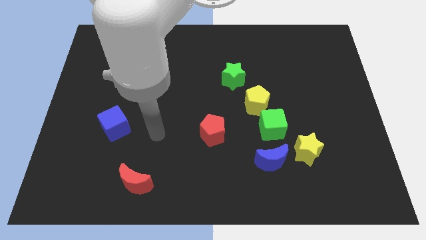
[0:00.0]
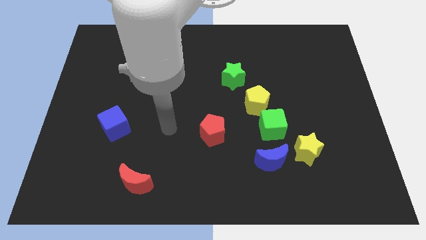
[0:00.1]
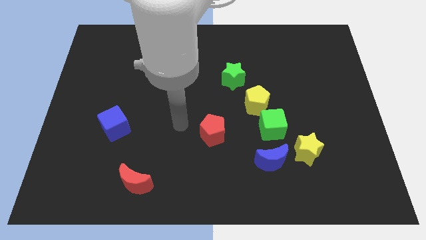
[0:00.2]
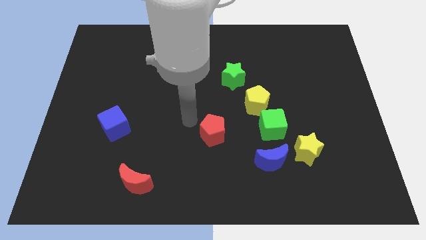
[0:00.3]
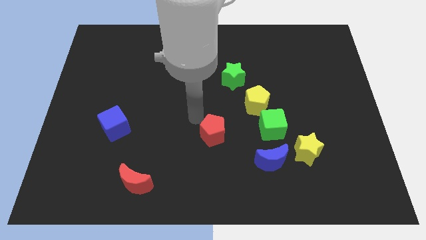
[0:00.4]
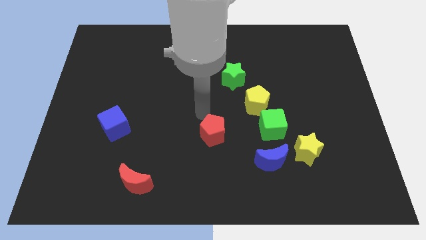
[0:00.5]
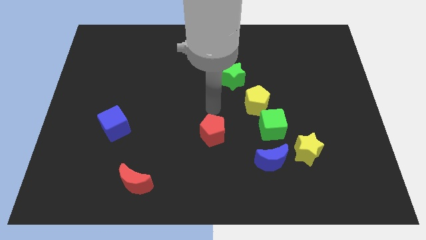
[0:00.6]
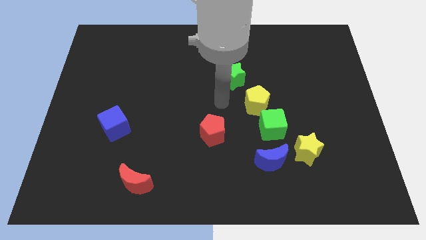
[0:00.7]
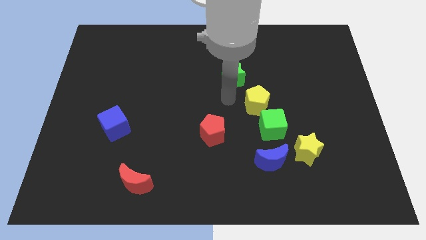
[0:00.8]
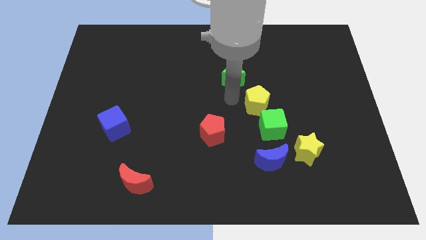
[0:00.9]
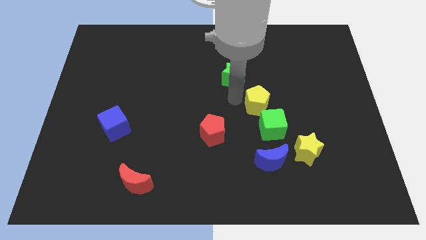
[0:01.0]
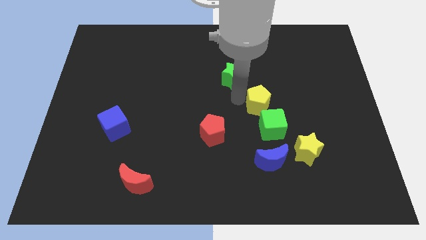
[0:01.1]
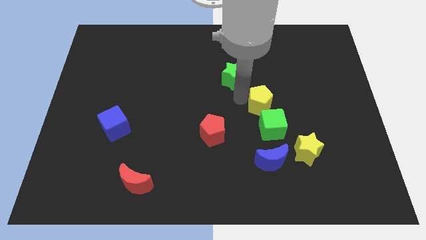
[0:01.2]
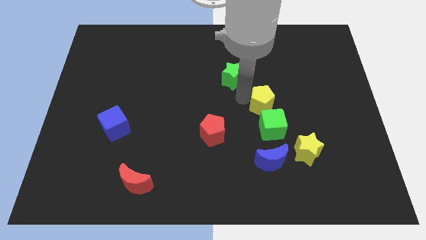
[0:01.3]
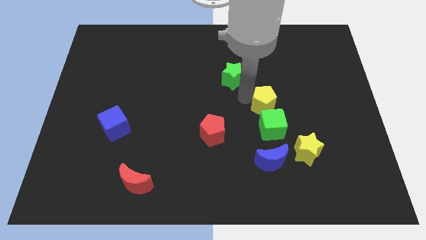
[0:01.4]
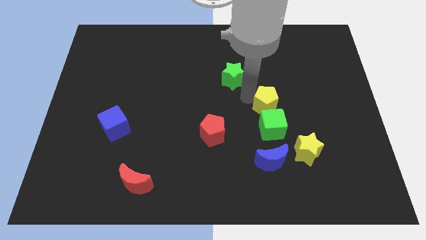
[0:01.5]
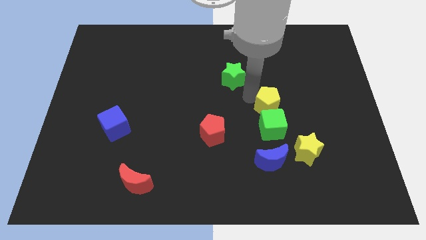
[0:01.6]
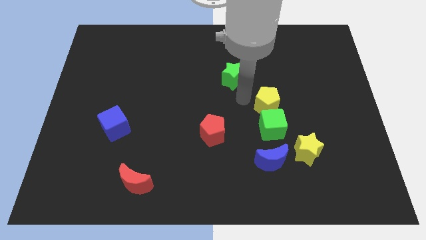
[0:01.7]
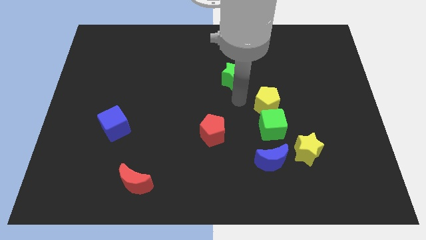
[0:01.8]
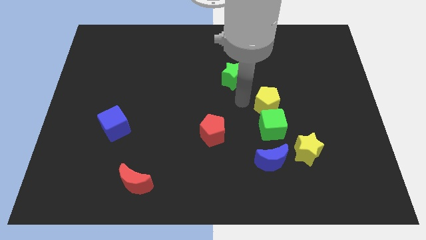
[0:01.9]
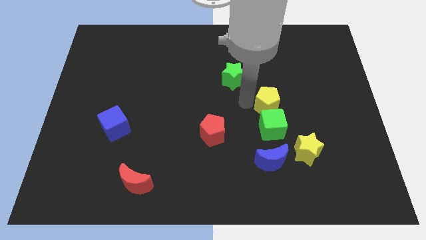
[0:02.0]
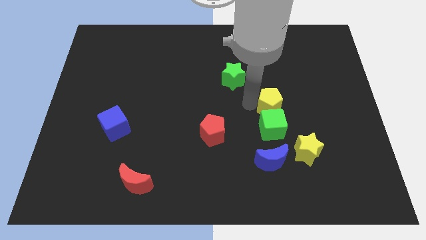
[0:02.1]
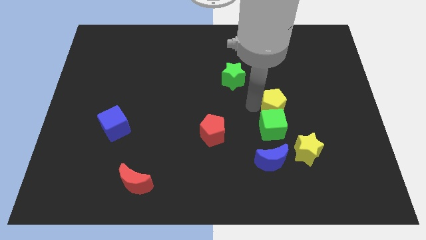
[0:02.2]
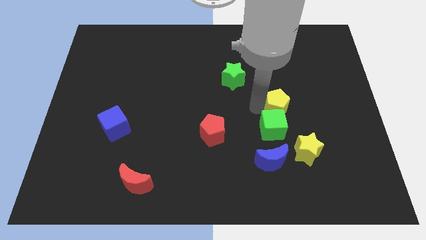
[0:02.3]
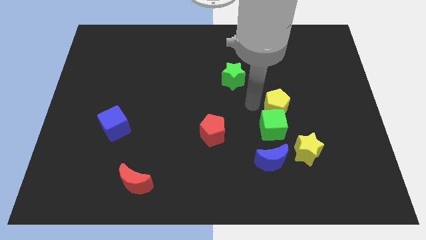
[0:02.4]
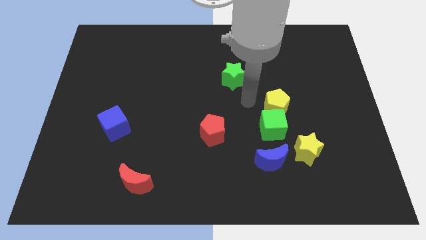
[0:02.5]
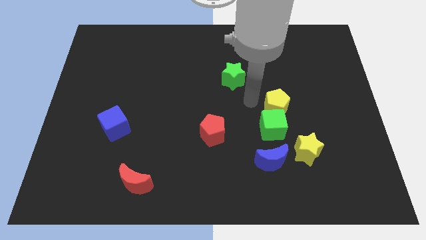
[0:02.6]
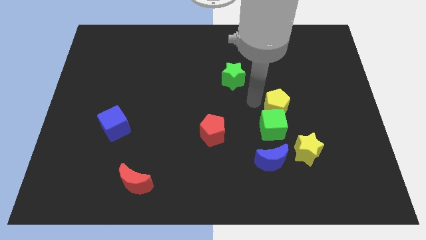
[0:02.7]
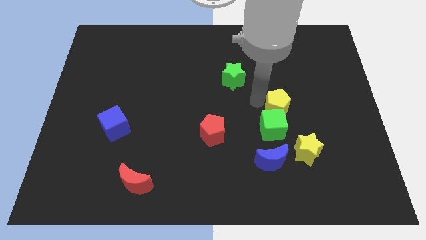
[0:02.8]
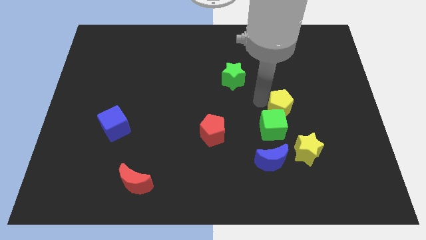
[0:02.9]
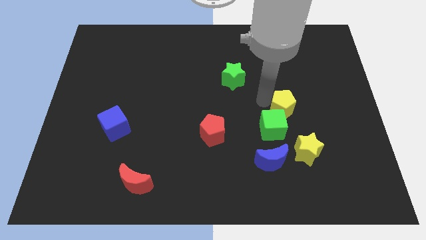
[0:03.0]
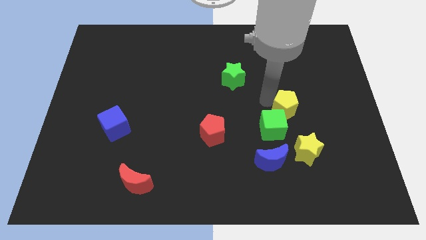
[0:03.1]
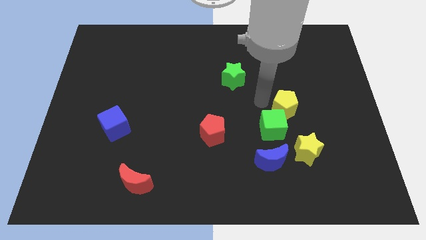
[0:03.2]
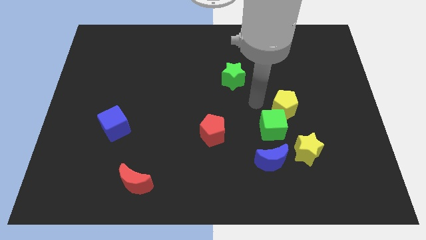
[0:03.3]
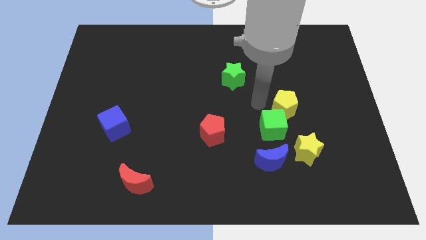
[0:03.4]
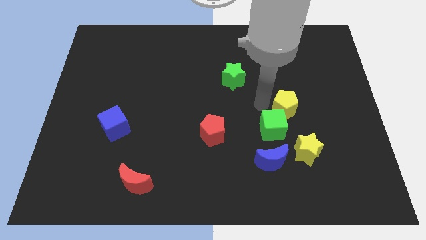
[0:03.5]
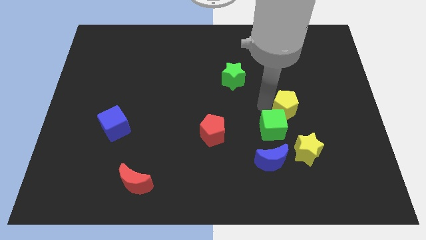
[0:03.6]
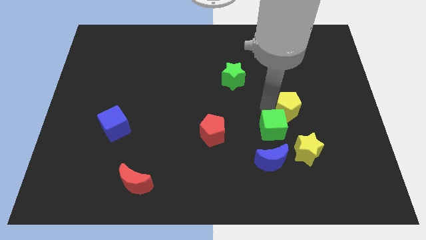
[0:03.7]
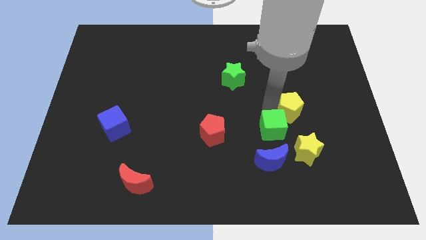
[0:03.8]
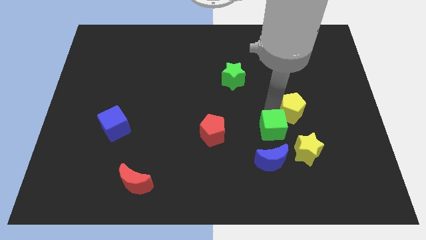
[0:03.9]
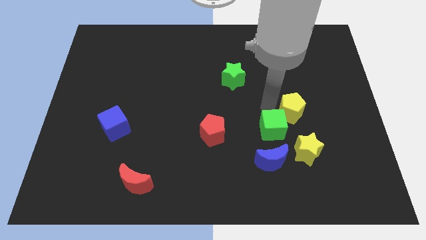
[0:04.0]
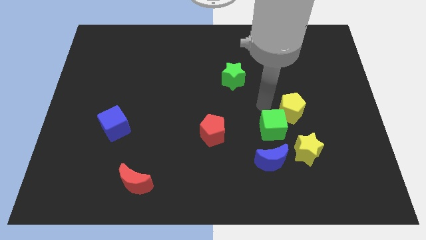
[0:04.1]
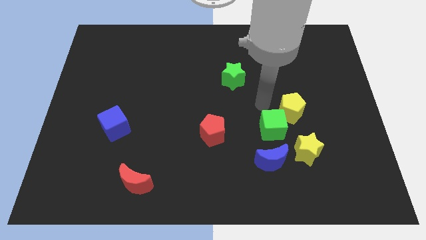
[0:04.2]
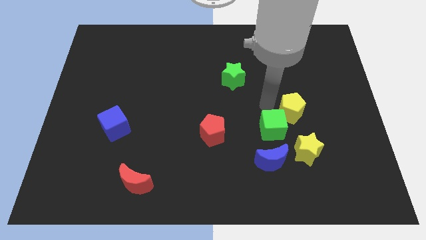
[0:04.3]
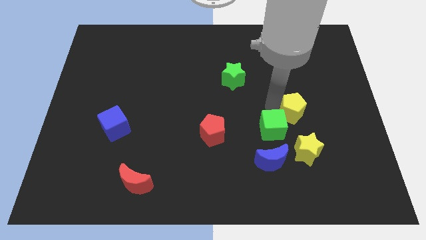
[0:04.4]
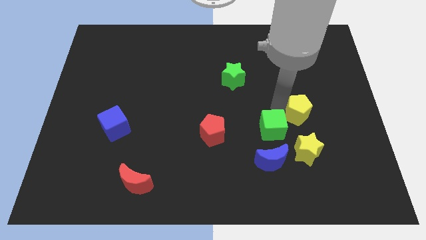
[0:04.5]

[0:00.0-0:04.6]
move the yellow pentagon away from the green cube and green star

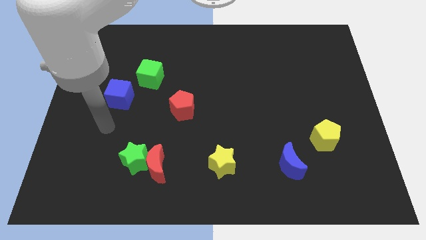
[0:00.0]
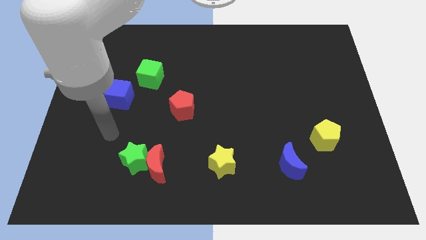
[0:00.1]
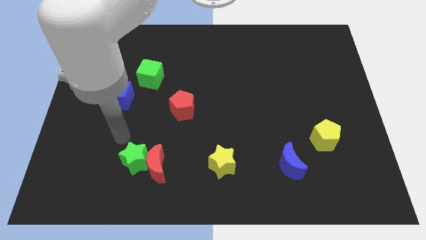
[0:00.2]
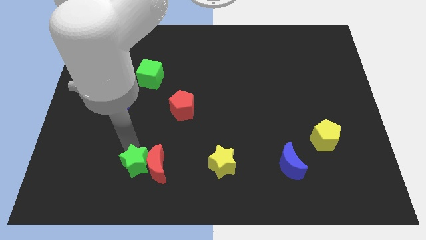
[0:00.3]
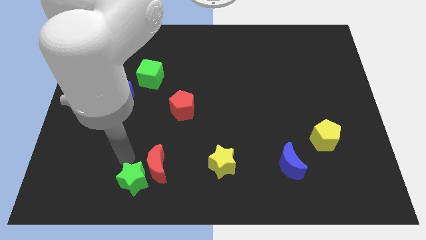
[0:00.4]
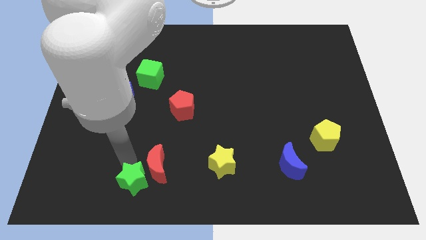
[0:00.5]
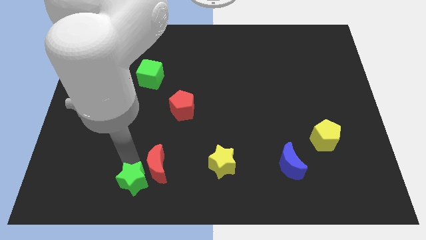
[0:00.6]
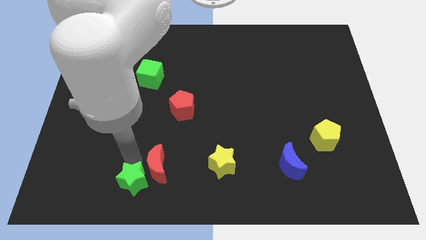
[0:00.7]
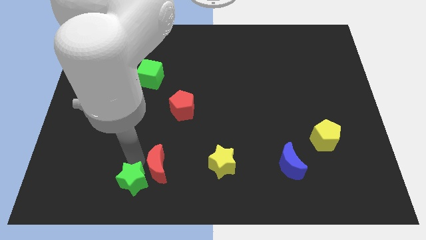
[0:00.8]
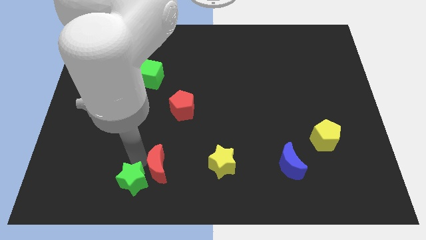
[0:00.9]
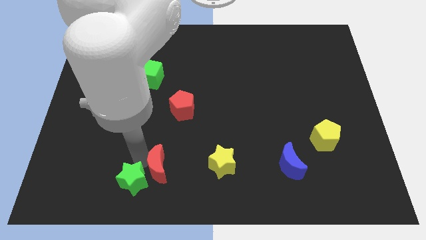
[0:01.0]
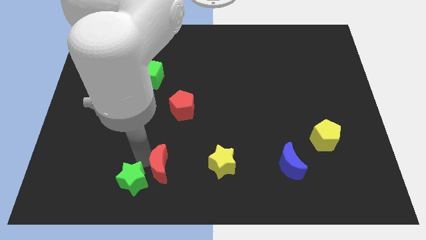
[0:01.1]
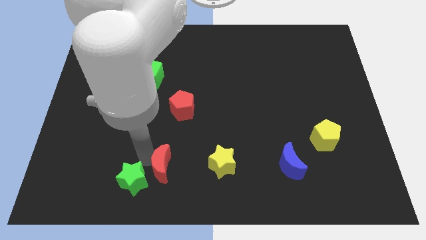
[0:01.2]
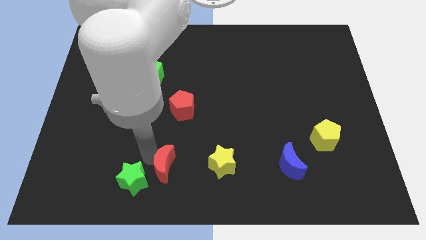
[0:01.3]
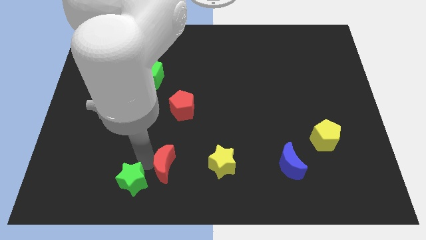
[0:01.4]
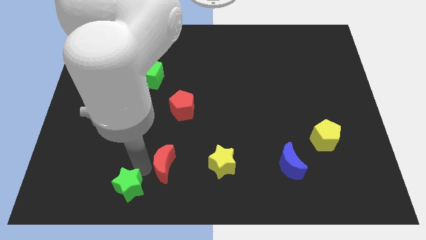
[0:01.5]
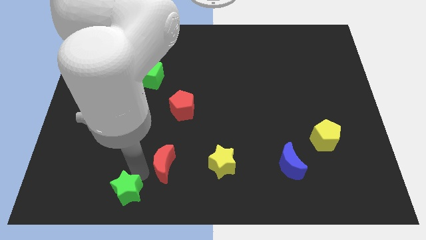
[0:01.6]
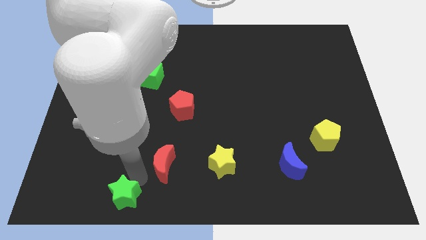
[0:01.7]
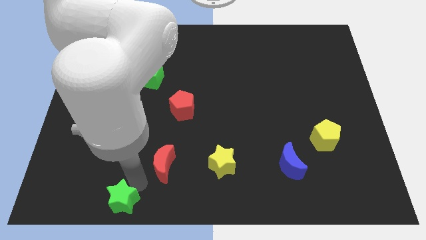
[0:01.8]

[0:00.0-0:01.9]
separate the red moon from the green star

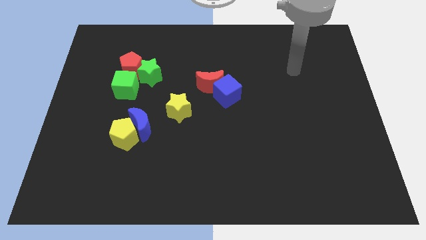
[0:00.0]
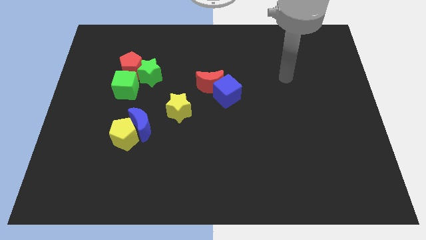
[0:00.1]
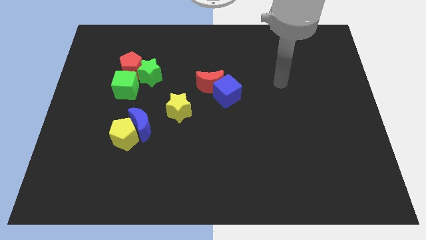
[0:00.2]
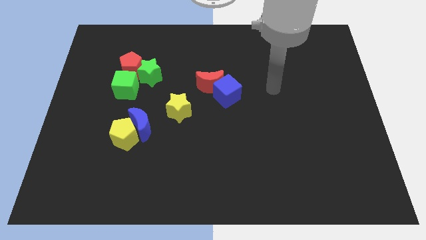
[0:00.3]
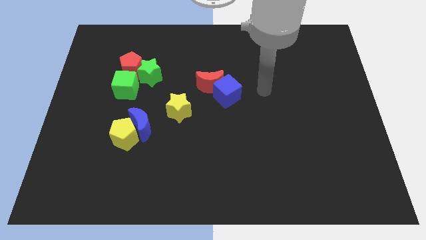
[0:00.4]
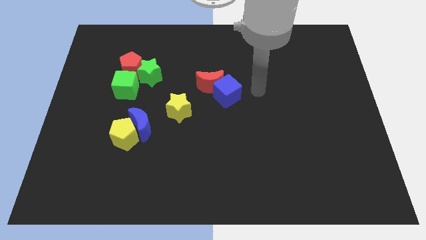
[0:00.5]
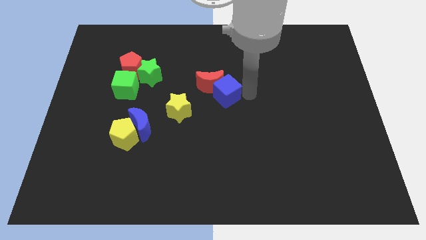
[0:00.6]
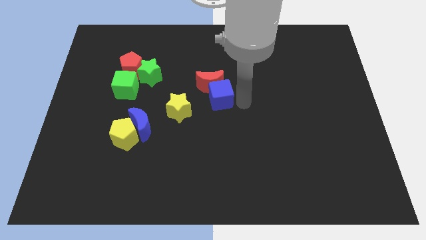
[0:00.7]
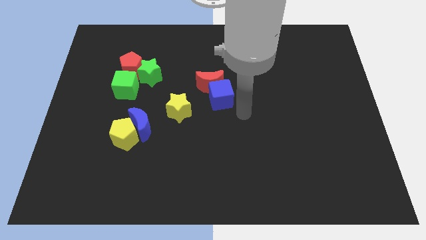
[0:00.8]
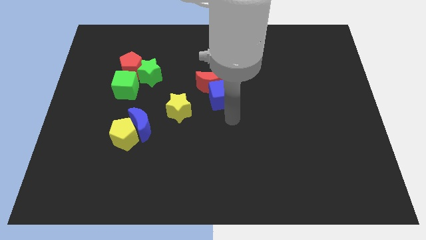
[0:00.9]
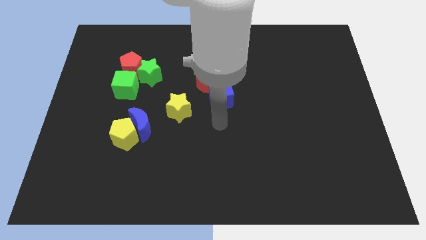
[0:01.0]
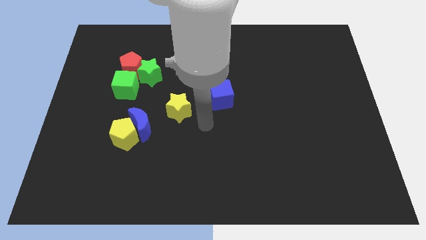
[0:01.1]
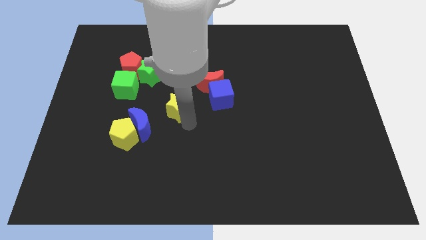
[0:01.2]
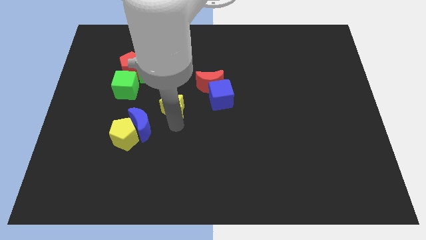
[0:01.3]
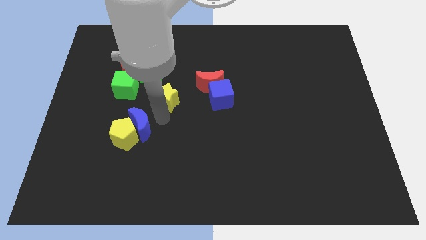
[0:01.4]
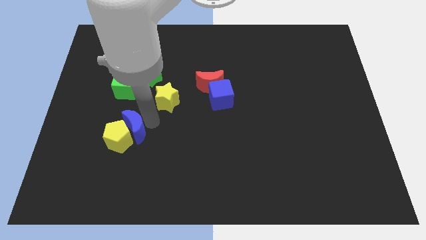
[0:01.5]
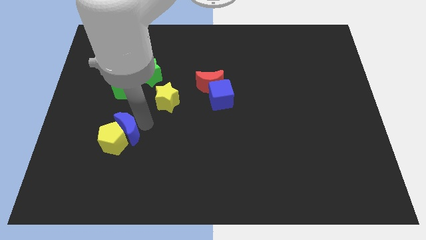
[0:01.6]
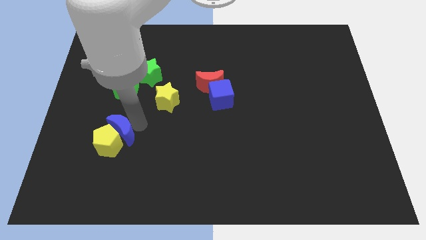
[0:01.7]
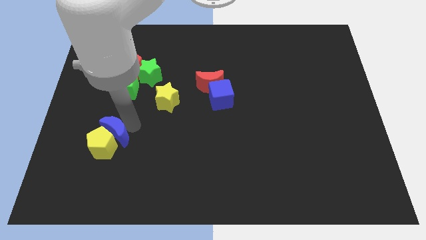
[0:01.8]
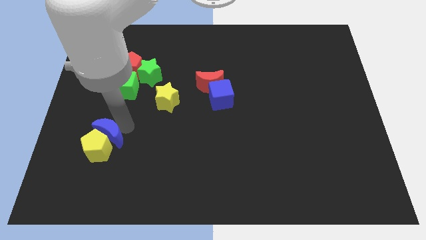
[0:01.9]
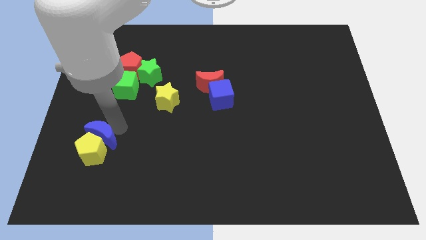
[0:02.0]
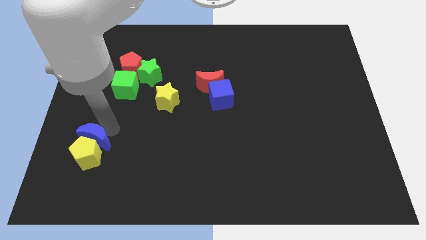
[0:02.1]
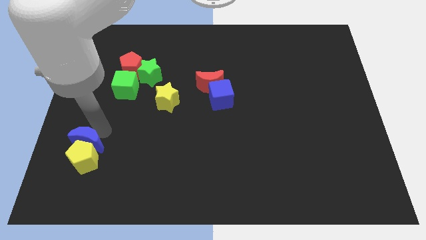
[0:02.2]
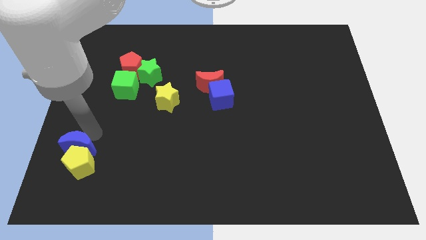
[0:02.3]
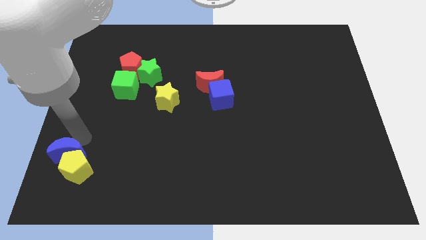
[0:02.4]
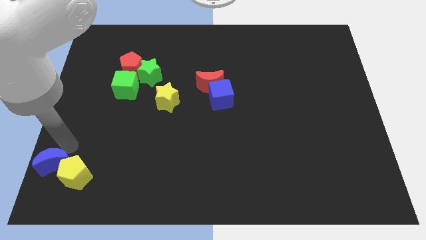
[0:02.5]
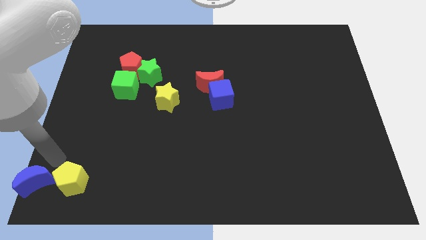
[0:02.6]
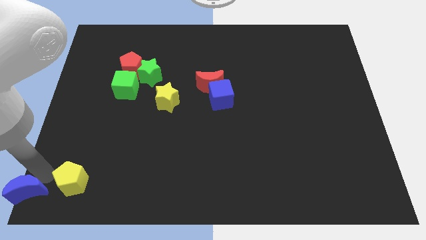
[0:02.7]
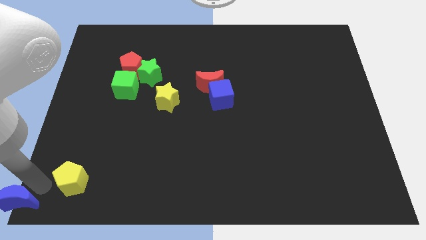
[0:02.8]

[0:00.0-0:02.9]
pull the yellow pentagon apart from the blue moon

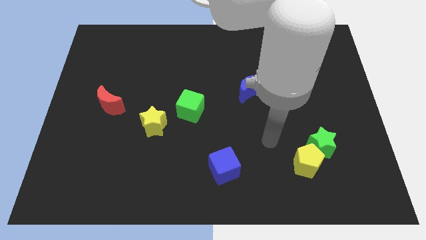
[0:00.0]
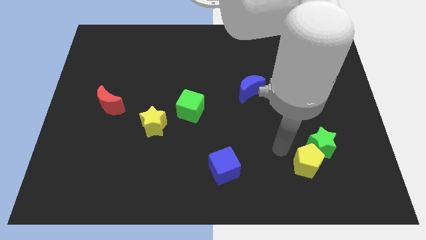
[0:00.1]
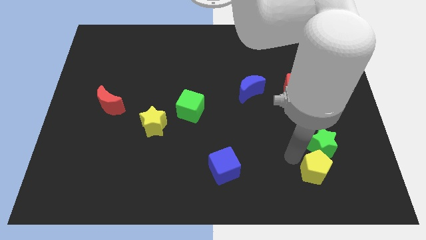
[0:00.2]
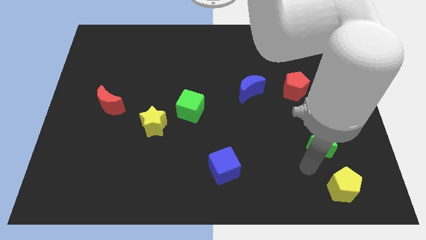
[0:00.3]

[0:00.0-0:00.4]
pull the green star apart from the yellow pentagon
